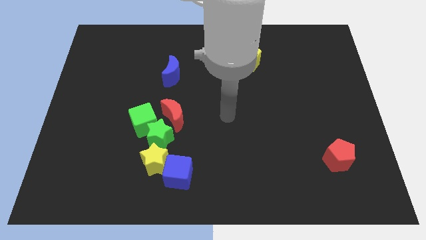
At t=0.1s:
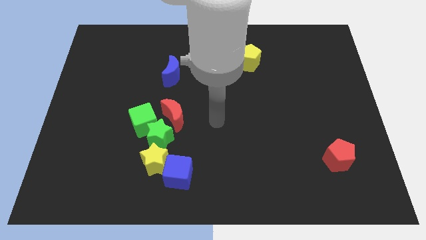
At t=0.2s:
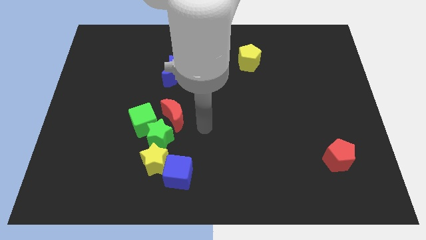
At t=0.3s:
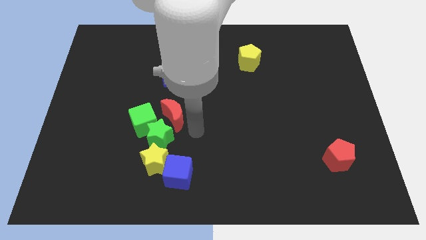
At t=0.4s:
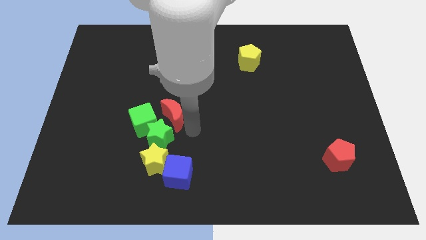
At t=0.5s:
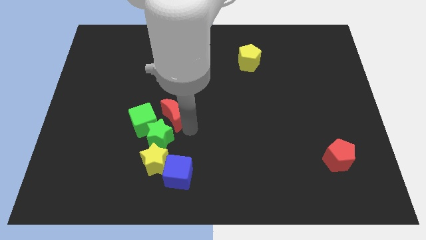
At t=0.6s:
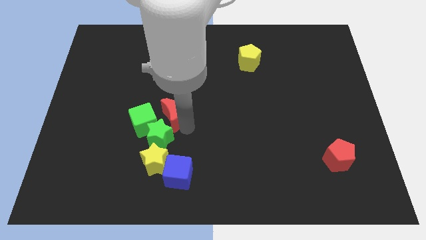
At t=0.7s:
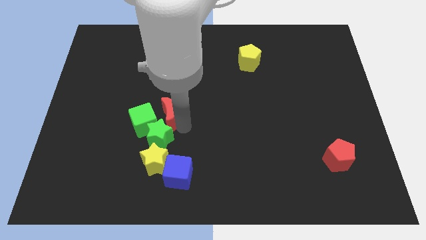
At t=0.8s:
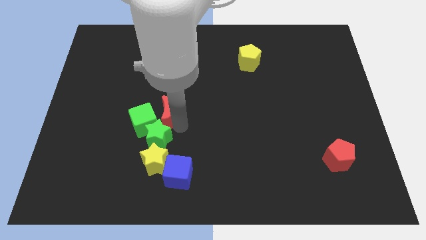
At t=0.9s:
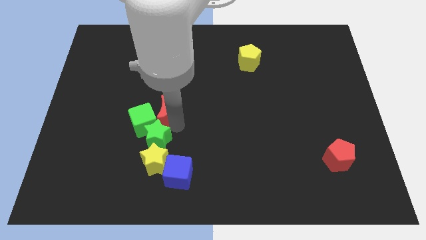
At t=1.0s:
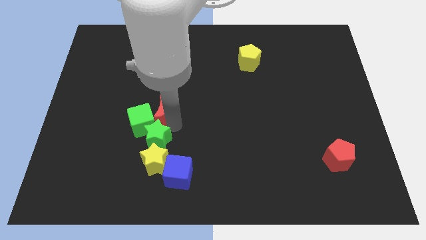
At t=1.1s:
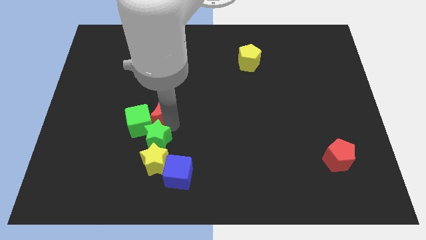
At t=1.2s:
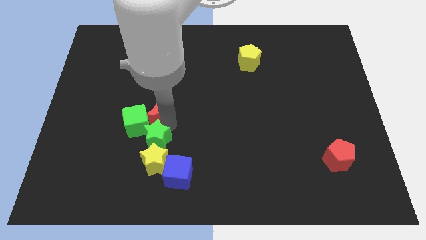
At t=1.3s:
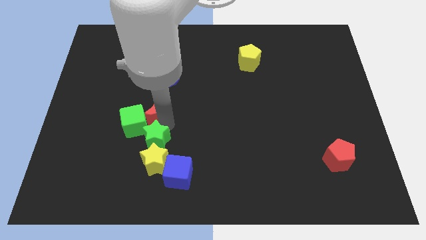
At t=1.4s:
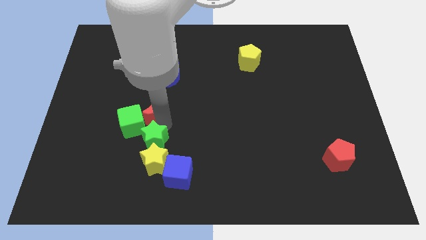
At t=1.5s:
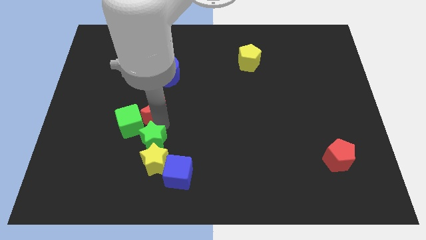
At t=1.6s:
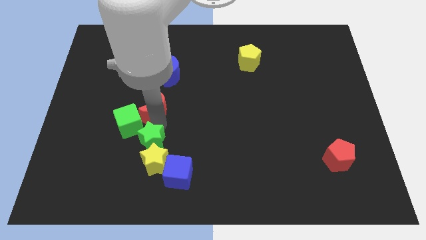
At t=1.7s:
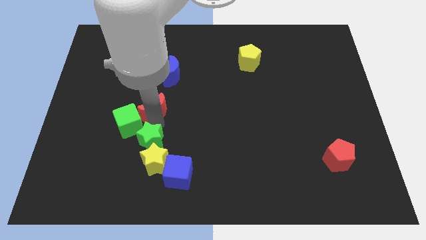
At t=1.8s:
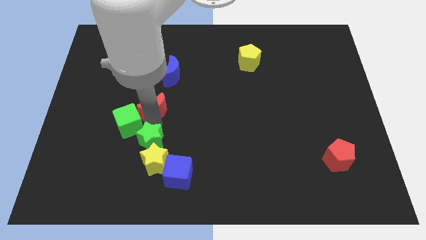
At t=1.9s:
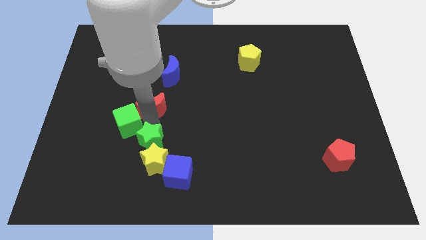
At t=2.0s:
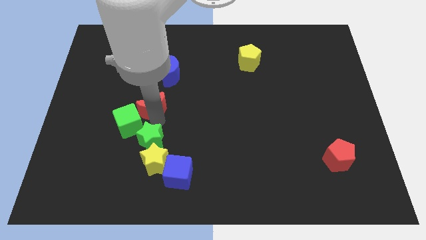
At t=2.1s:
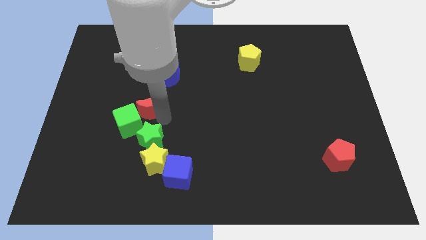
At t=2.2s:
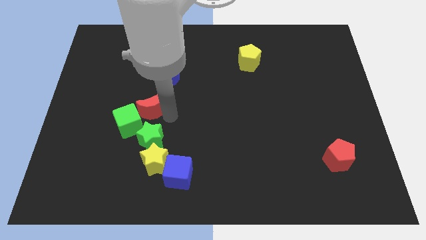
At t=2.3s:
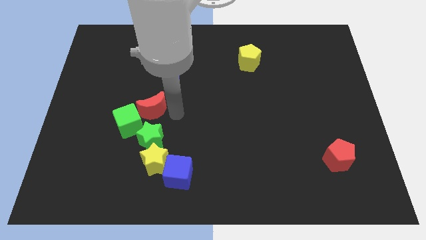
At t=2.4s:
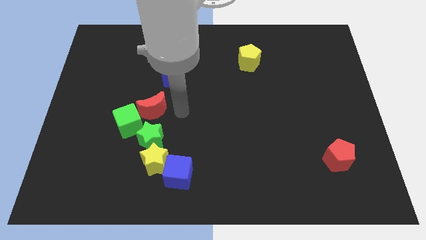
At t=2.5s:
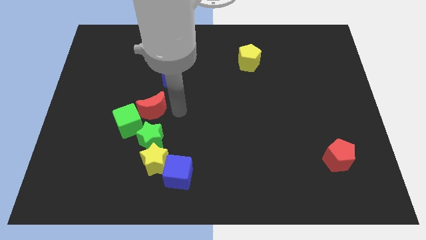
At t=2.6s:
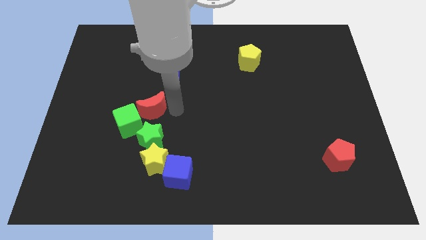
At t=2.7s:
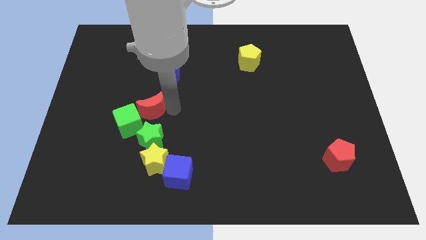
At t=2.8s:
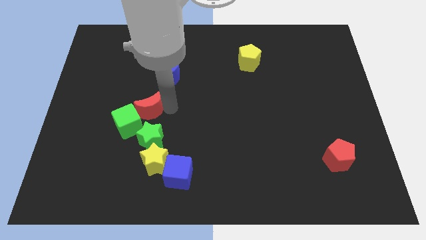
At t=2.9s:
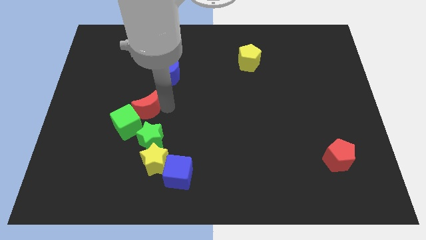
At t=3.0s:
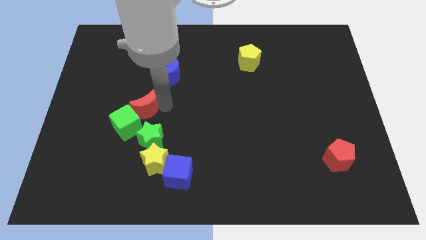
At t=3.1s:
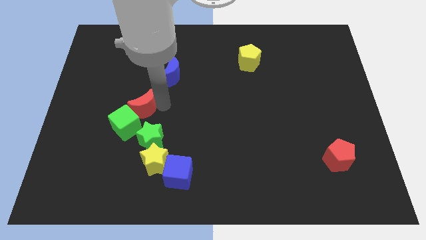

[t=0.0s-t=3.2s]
slide the red moon left slightly

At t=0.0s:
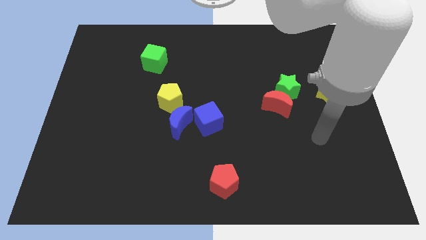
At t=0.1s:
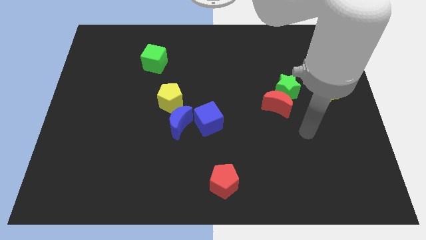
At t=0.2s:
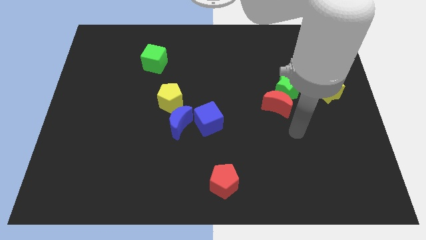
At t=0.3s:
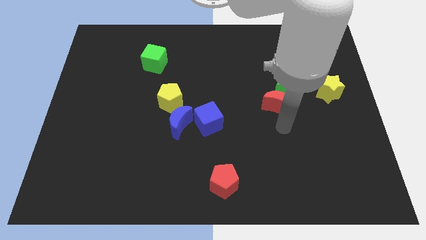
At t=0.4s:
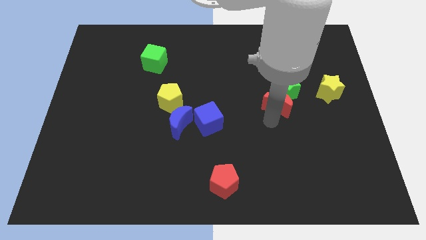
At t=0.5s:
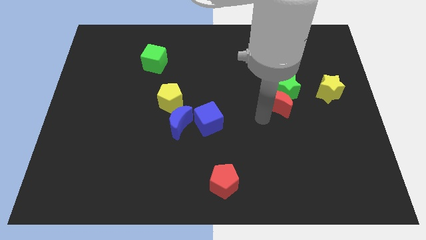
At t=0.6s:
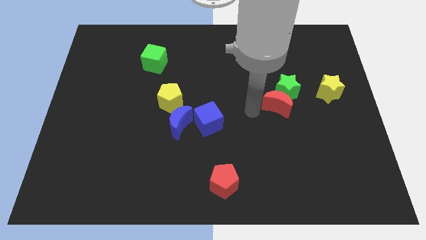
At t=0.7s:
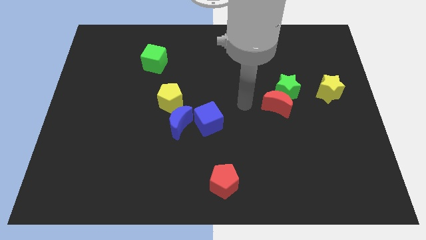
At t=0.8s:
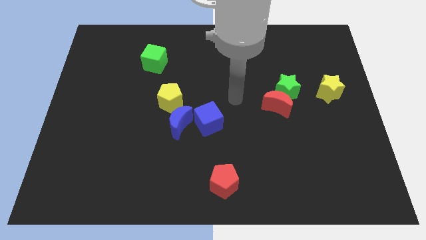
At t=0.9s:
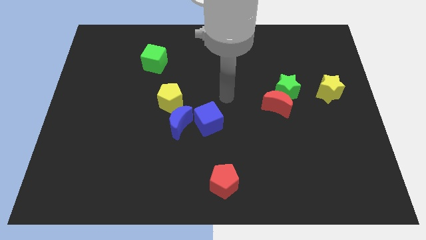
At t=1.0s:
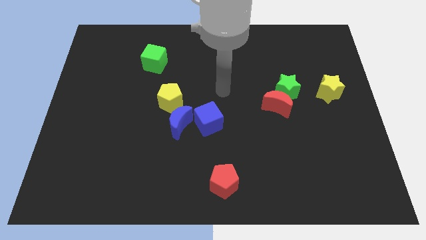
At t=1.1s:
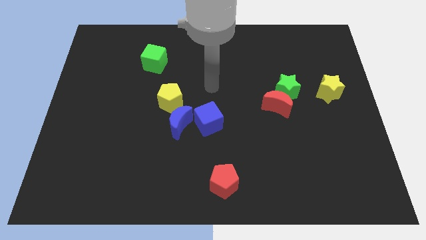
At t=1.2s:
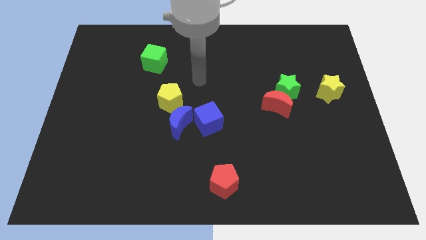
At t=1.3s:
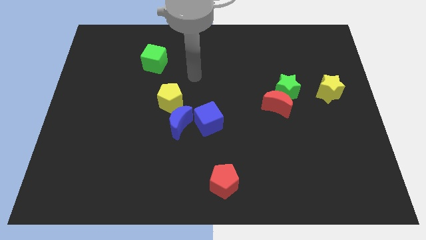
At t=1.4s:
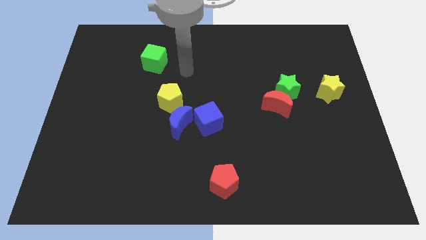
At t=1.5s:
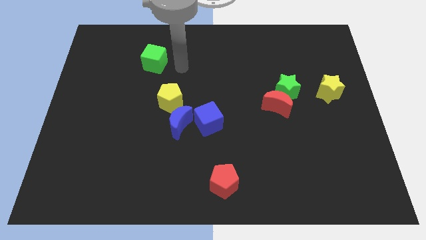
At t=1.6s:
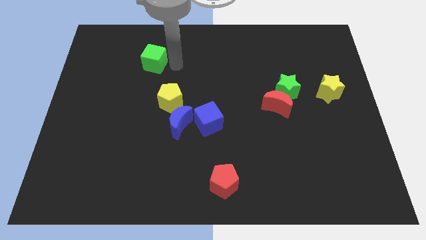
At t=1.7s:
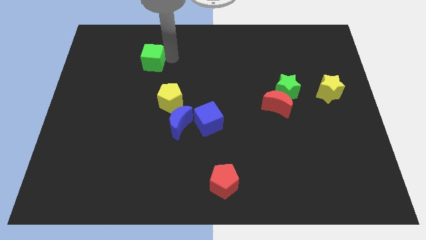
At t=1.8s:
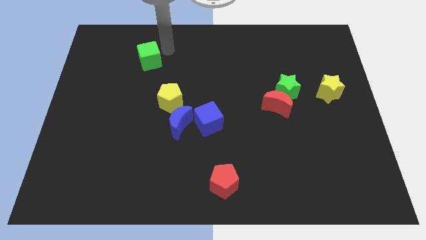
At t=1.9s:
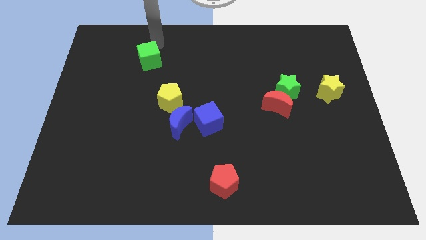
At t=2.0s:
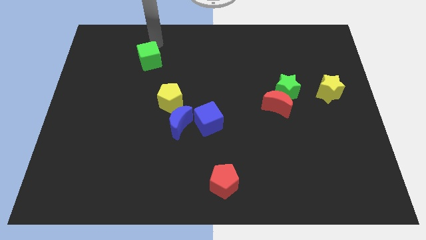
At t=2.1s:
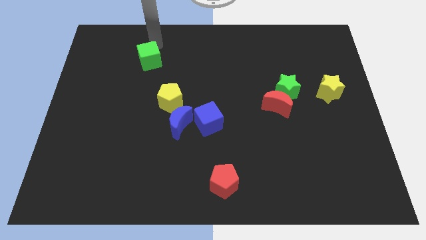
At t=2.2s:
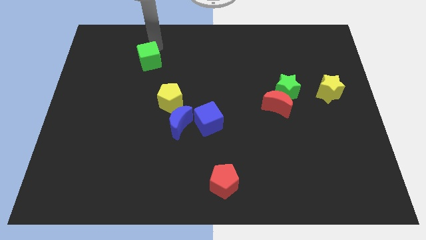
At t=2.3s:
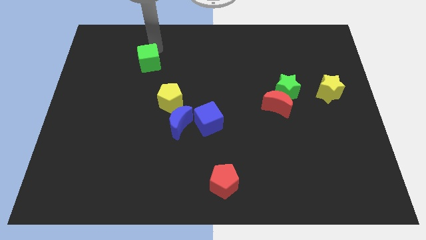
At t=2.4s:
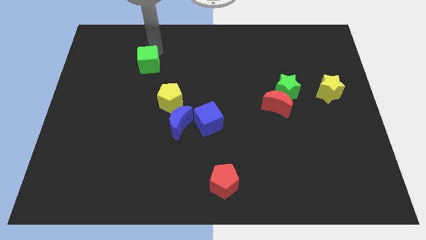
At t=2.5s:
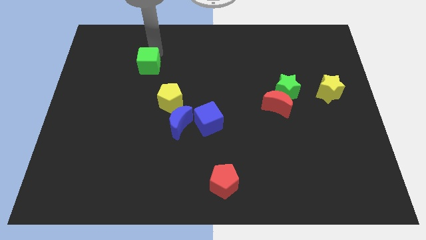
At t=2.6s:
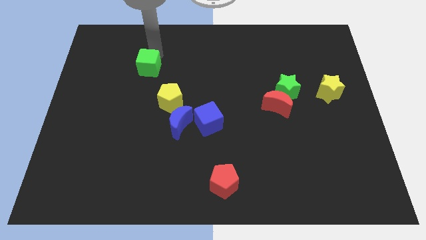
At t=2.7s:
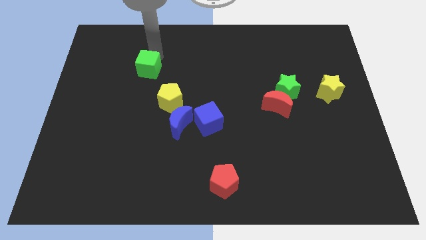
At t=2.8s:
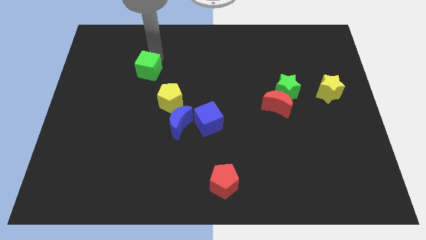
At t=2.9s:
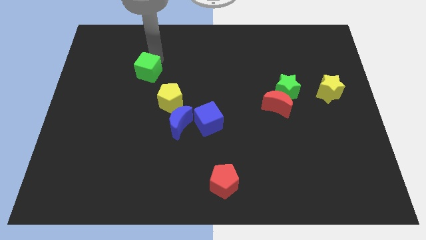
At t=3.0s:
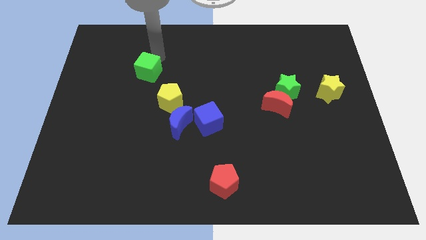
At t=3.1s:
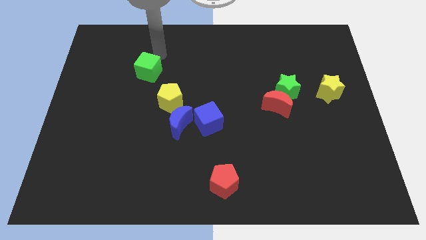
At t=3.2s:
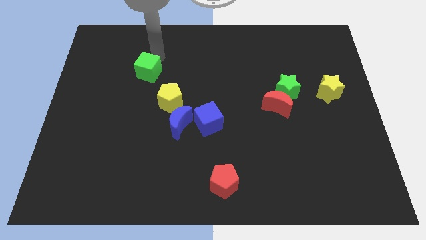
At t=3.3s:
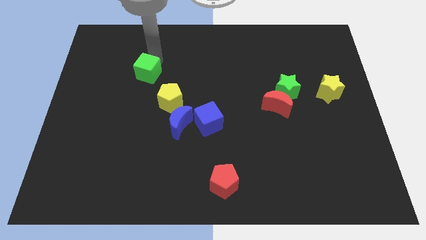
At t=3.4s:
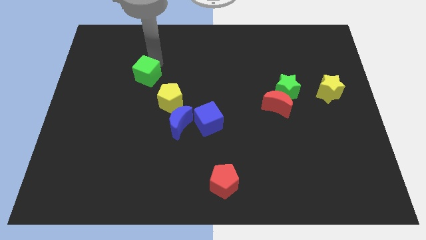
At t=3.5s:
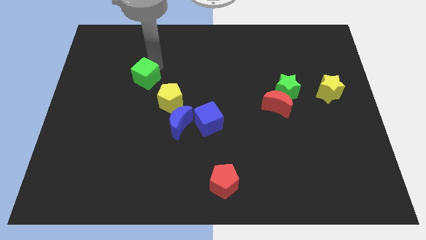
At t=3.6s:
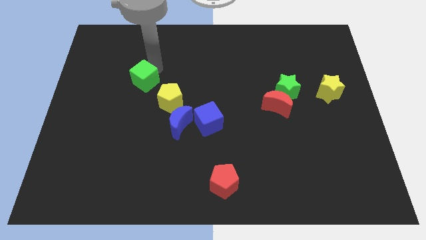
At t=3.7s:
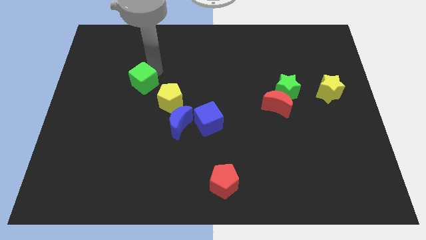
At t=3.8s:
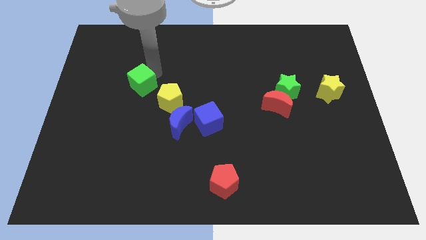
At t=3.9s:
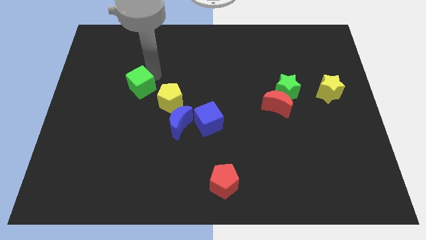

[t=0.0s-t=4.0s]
push the green cube diagonally downwards and to the left a bit

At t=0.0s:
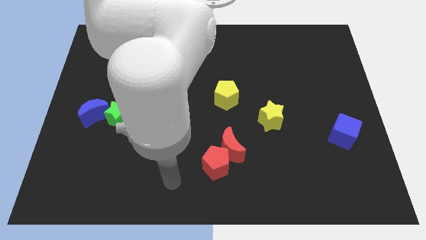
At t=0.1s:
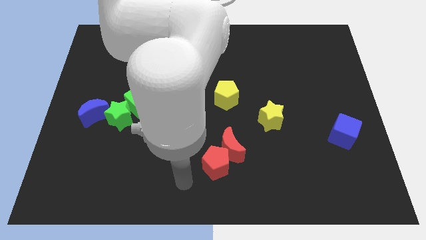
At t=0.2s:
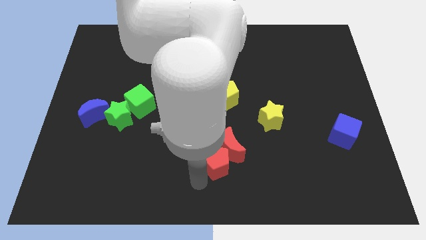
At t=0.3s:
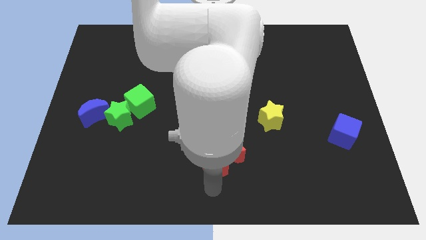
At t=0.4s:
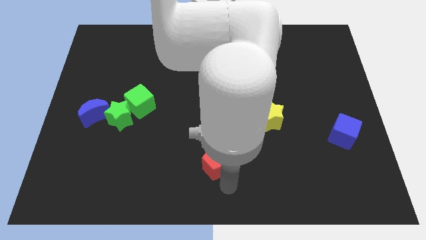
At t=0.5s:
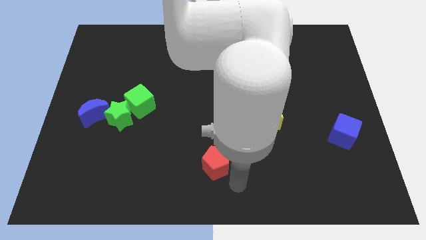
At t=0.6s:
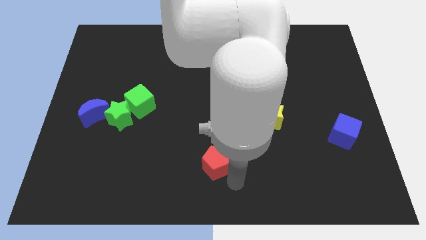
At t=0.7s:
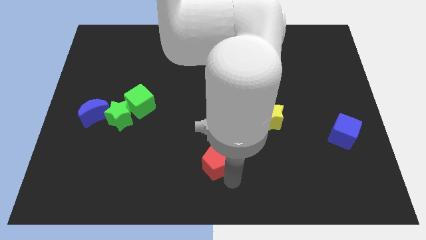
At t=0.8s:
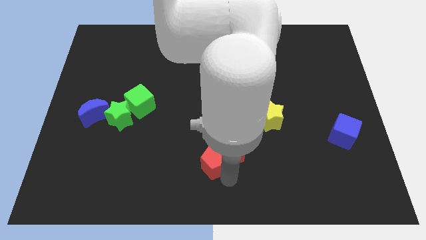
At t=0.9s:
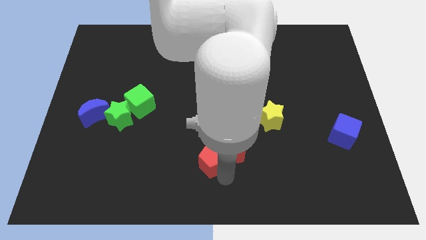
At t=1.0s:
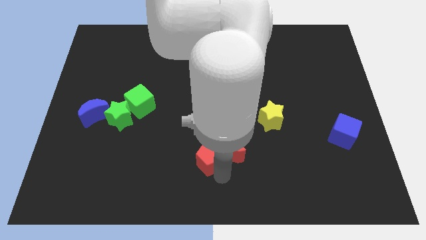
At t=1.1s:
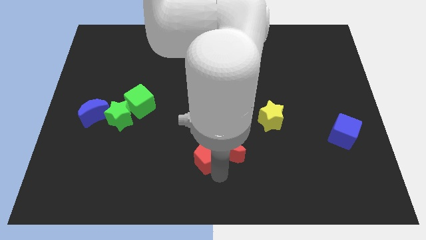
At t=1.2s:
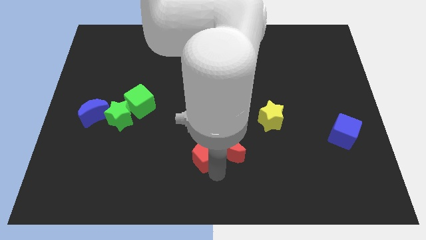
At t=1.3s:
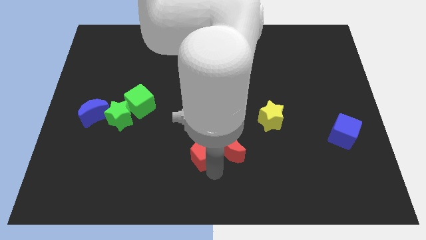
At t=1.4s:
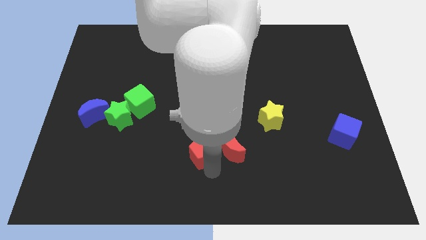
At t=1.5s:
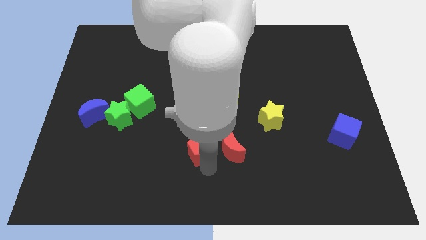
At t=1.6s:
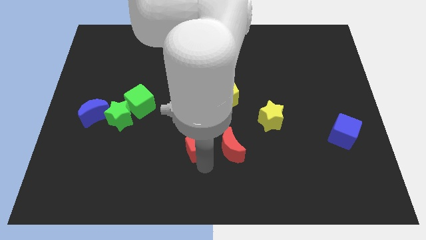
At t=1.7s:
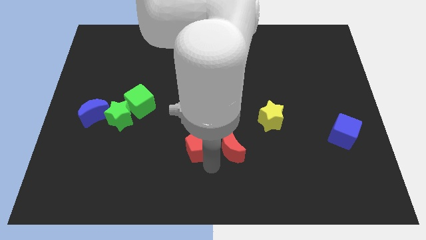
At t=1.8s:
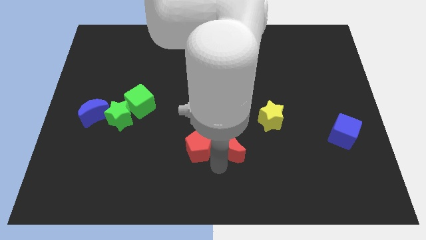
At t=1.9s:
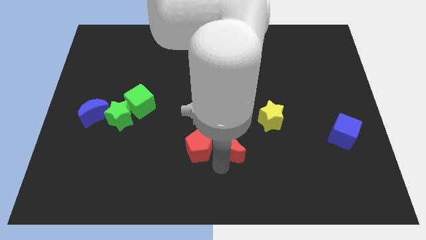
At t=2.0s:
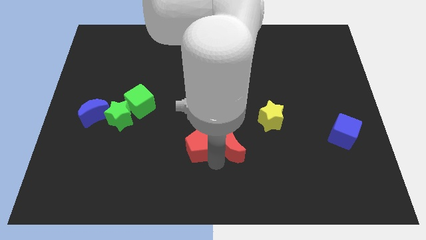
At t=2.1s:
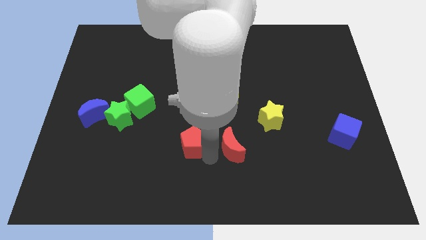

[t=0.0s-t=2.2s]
slide the red pentagon upwards and then left a bit
